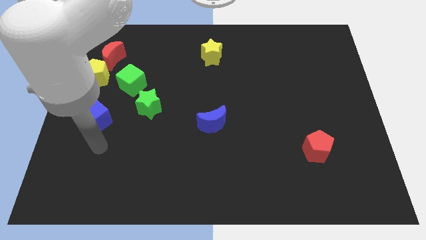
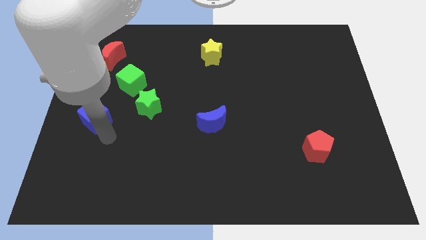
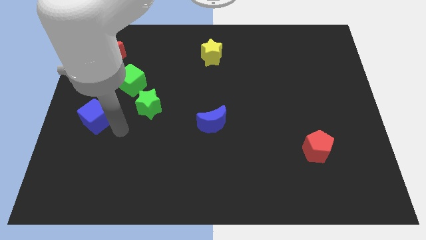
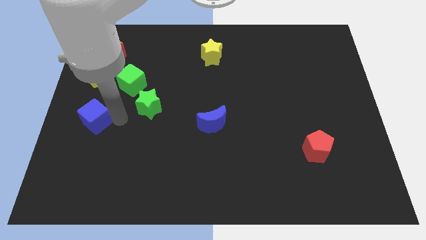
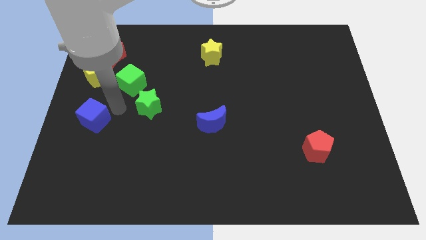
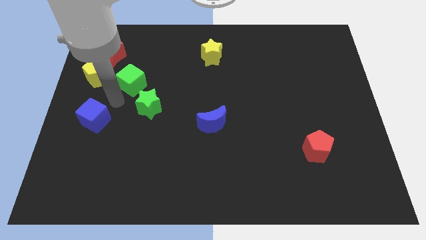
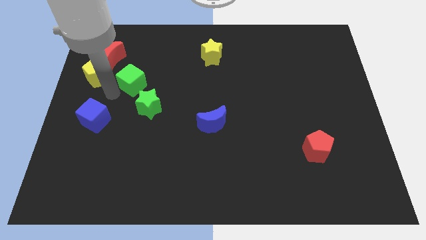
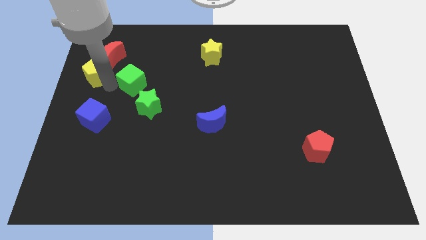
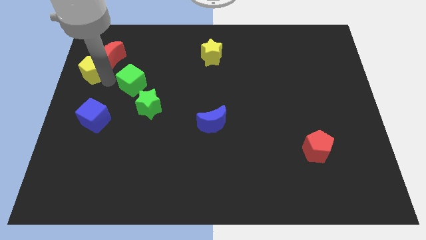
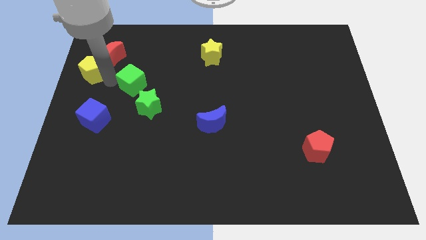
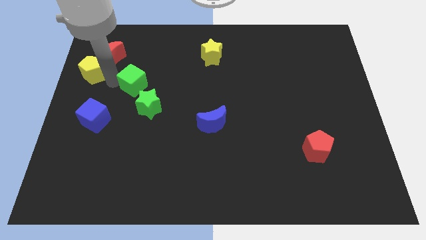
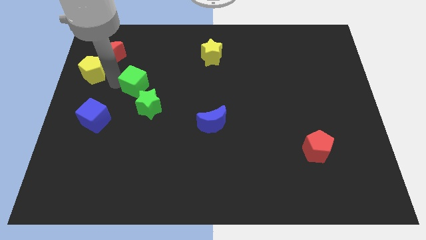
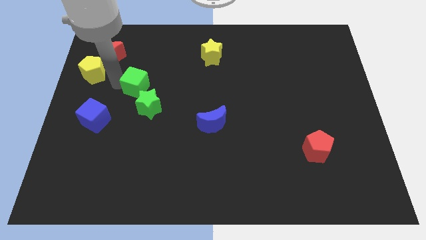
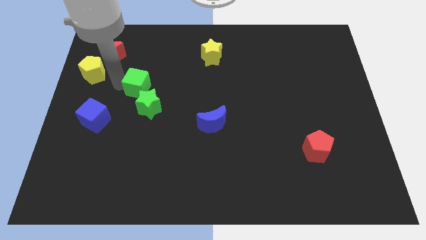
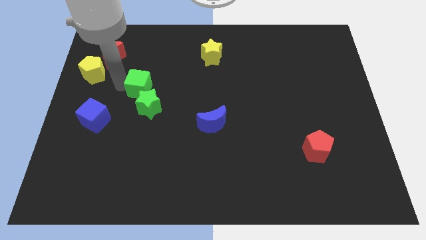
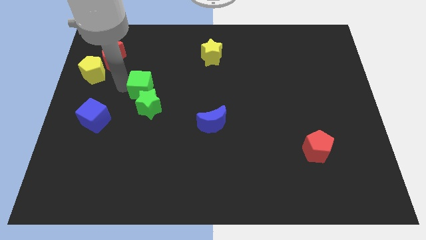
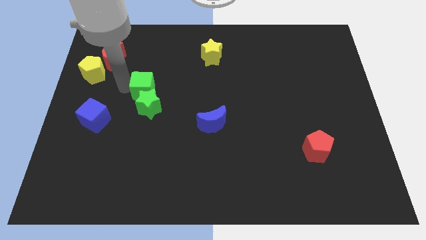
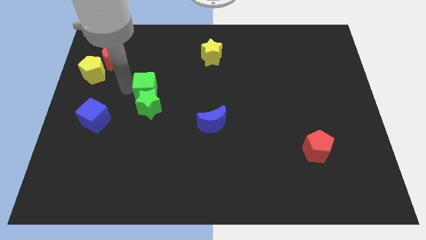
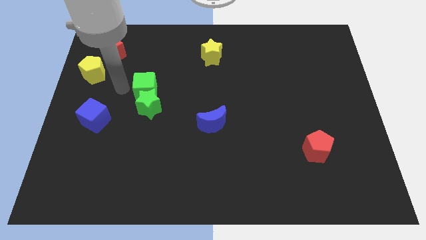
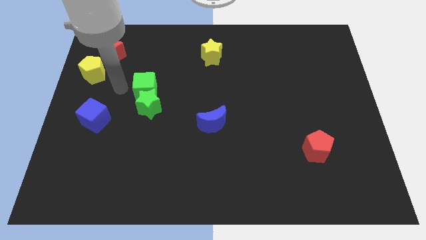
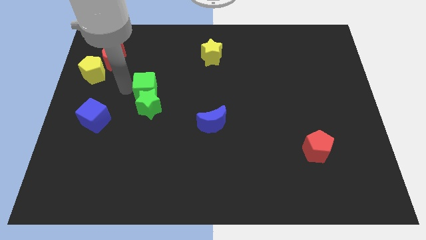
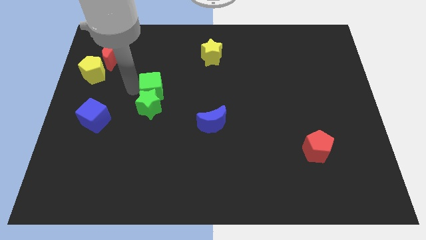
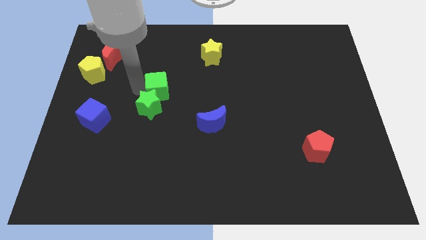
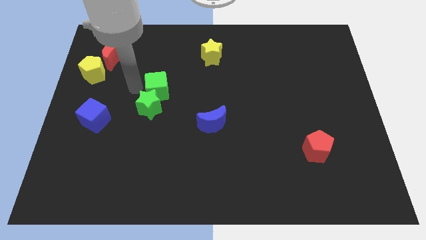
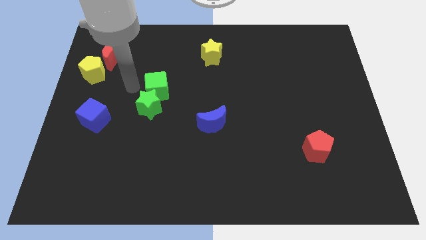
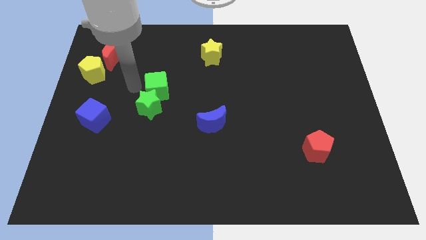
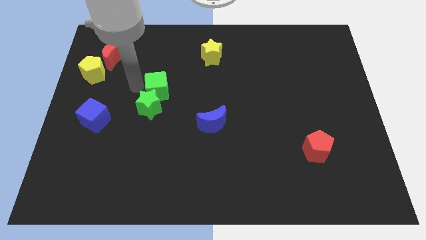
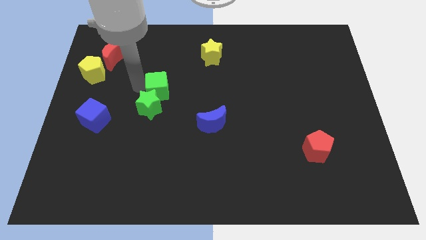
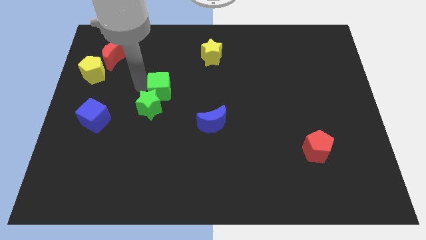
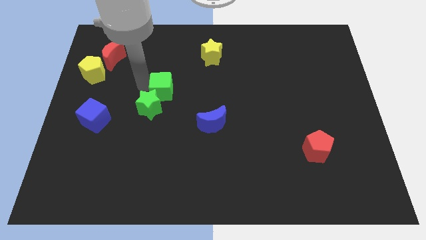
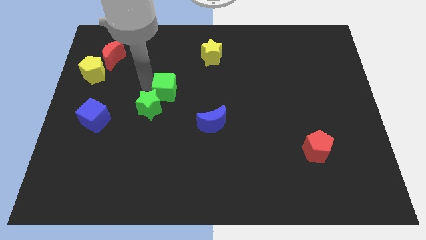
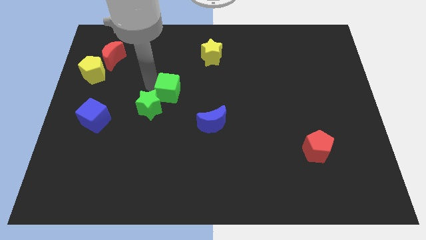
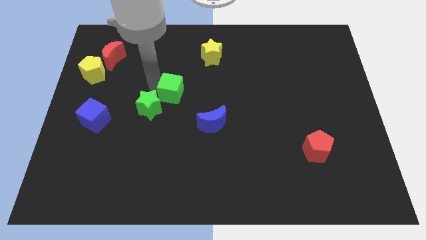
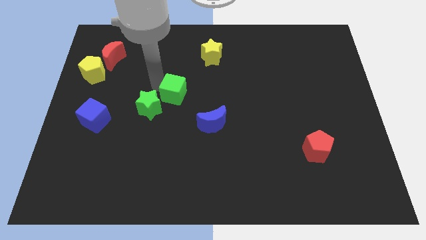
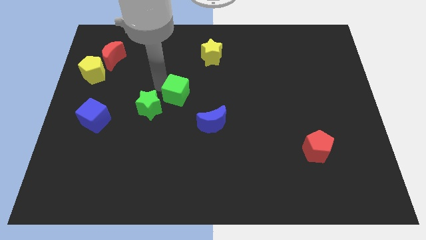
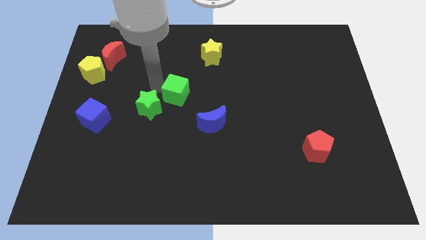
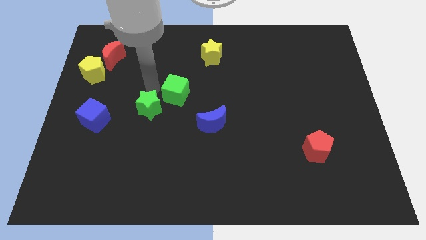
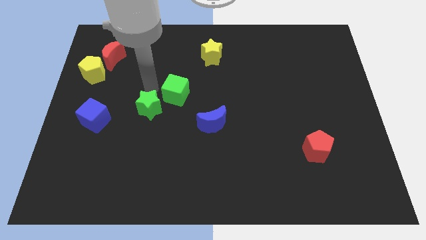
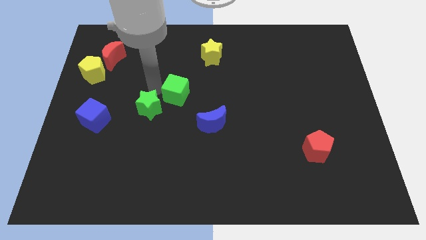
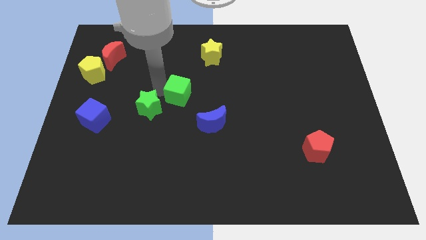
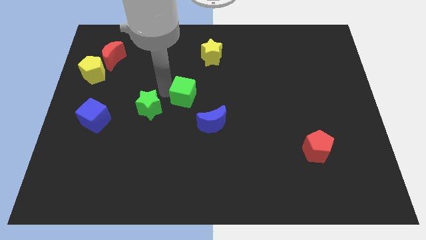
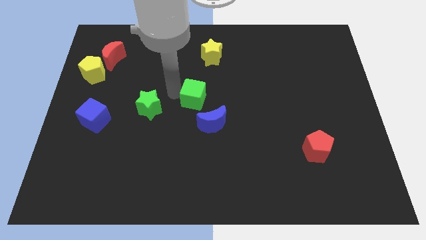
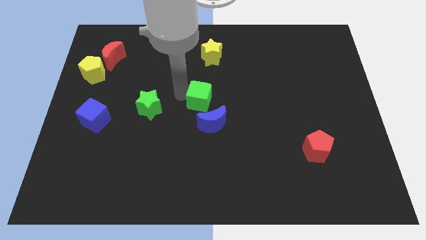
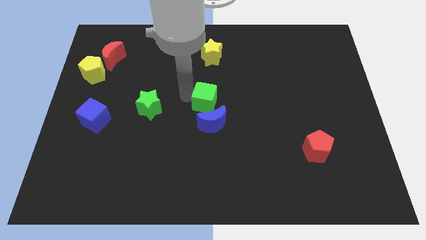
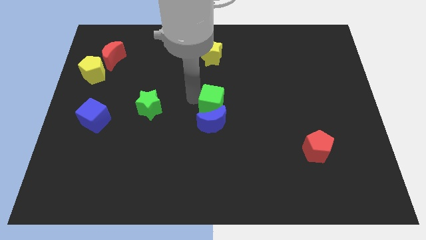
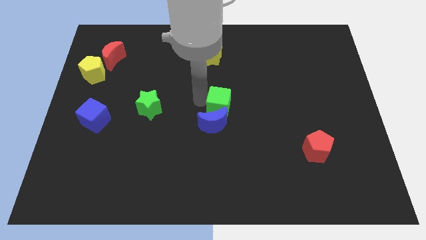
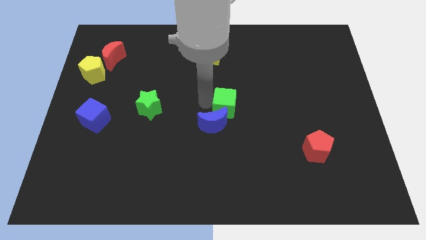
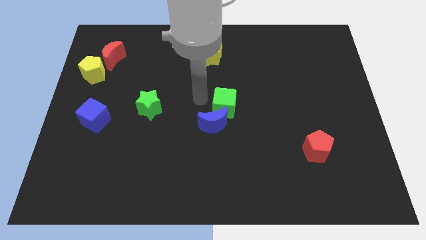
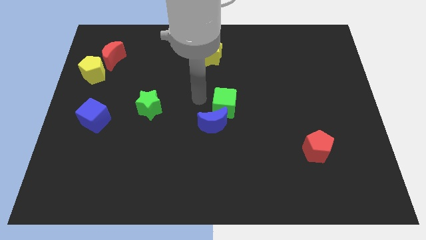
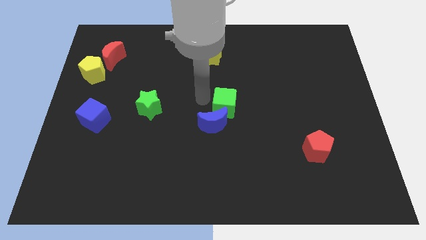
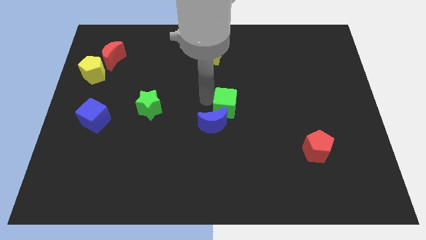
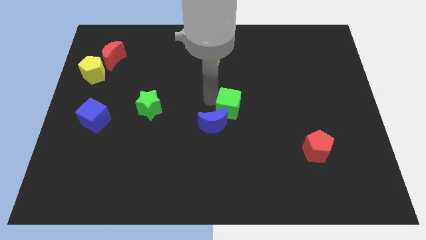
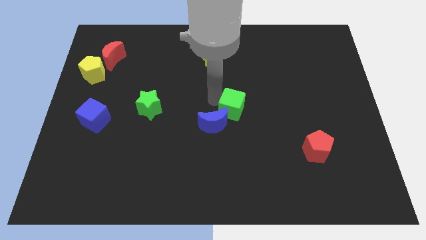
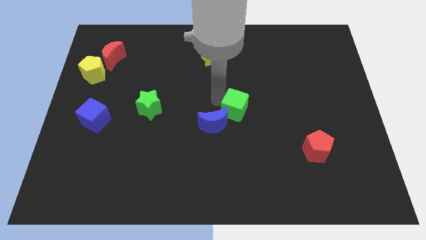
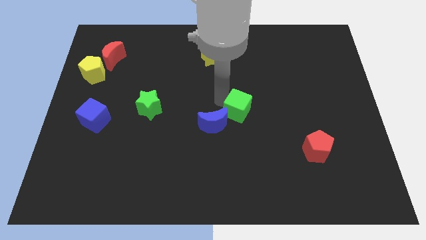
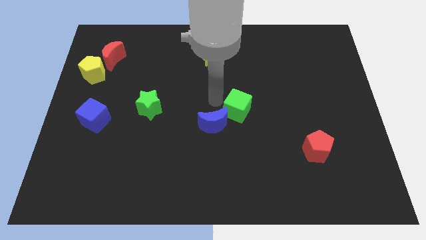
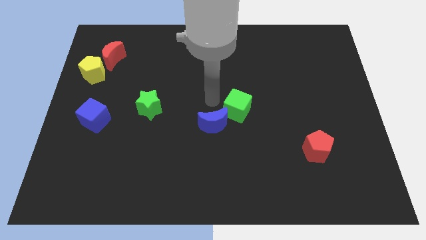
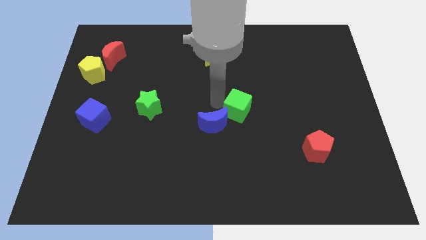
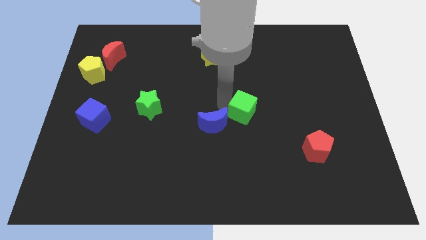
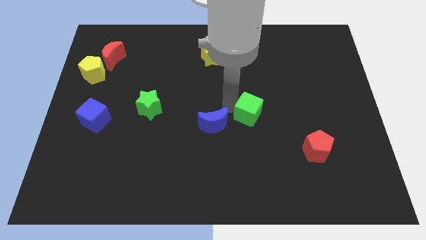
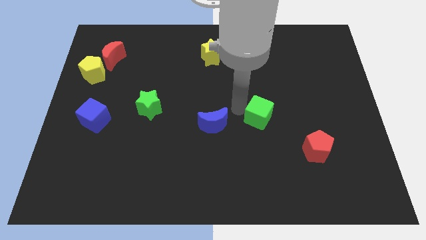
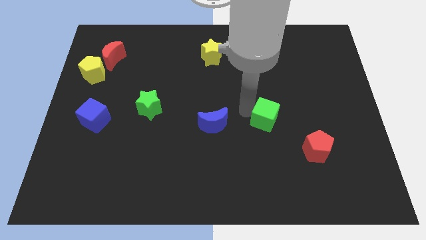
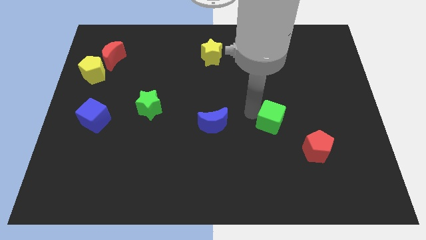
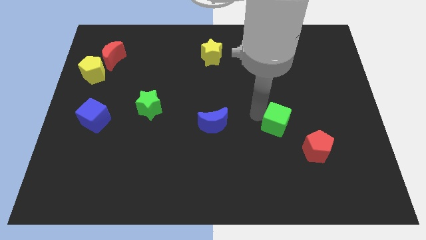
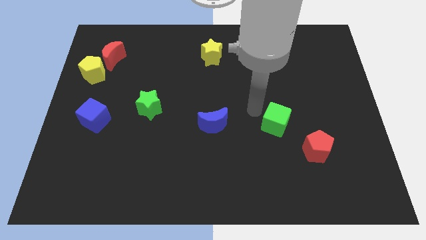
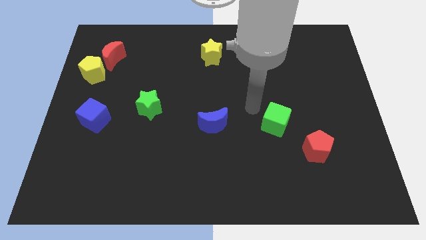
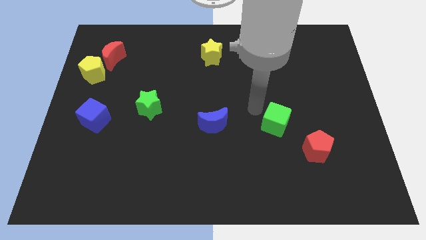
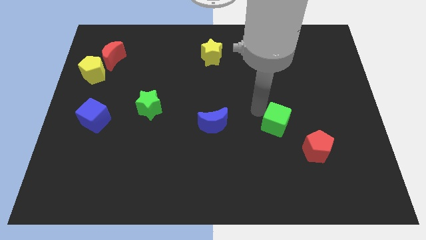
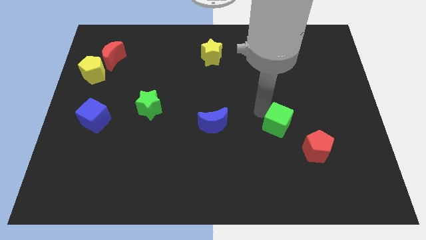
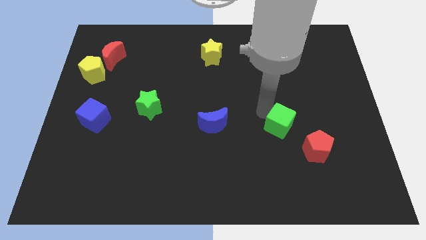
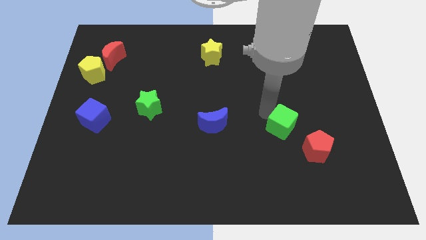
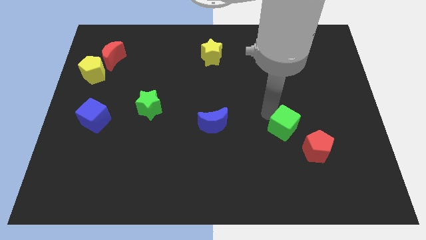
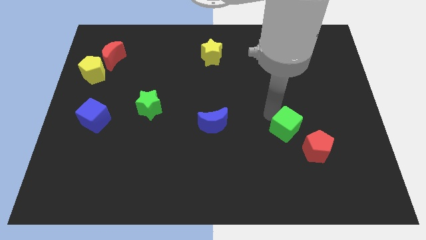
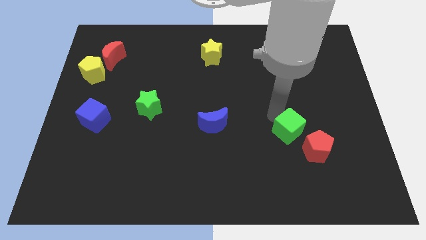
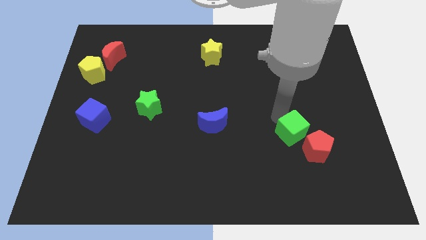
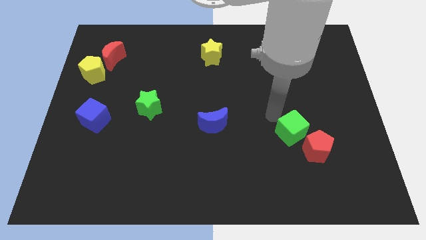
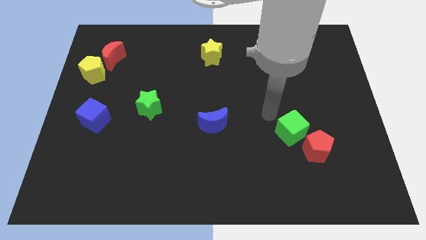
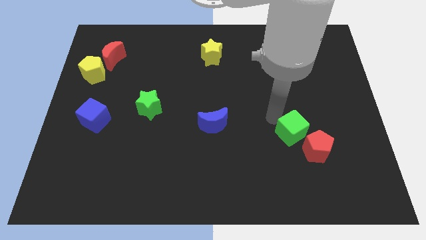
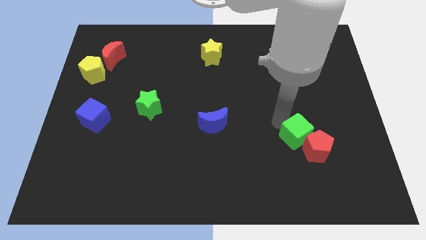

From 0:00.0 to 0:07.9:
put the green cube next to the red pentagon
